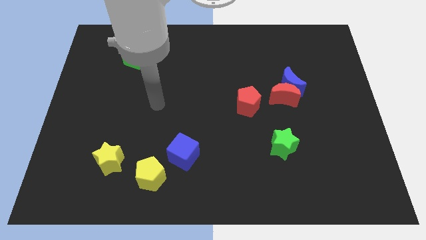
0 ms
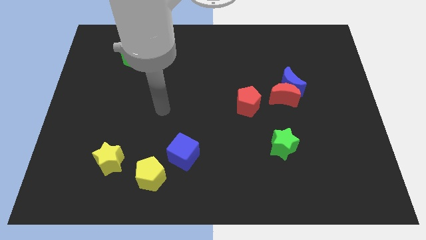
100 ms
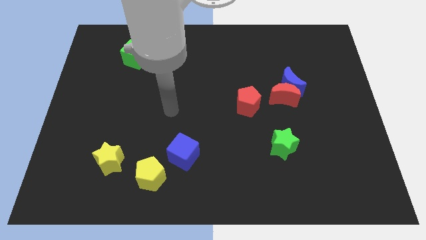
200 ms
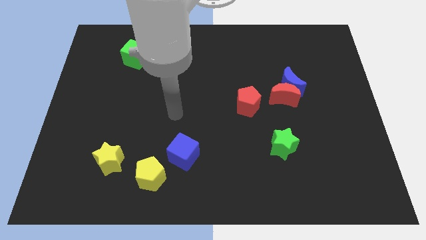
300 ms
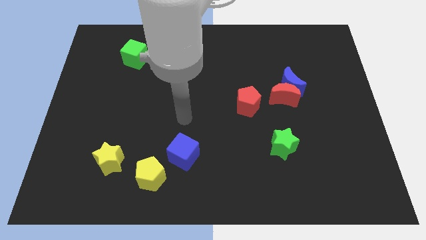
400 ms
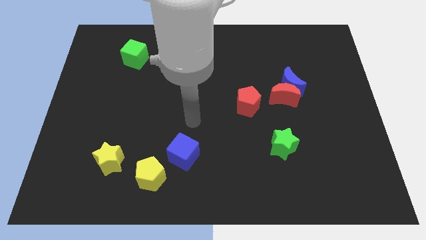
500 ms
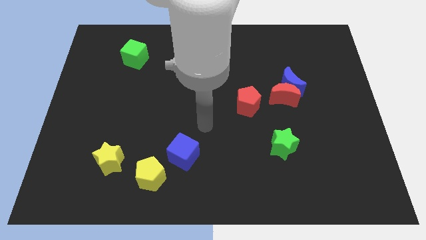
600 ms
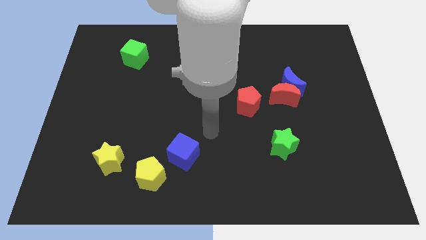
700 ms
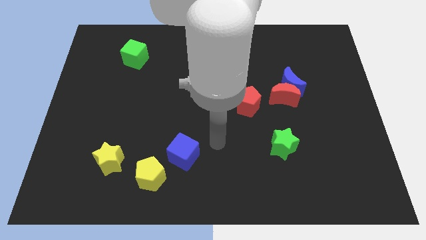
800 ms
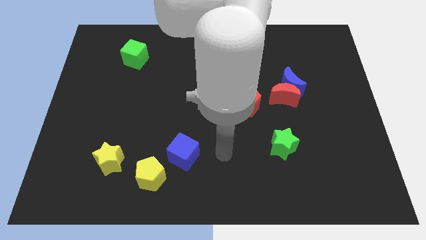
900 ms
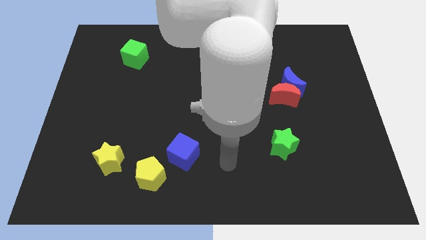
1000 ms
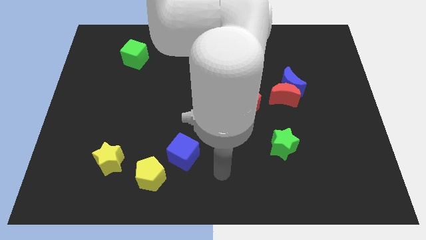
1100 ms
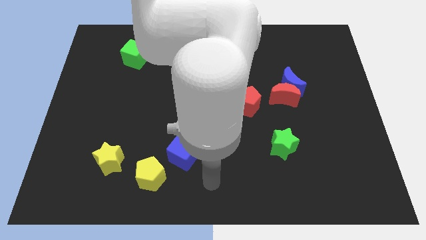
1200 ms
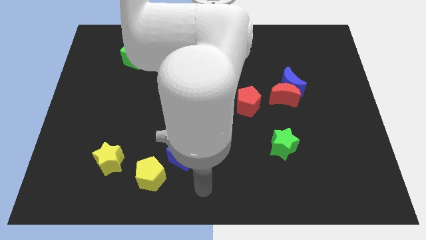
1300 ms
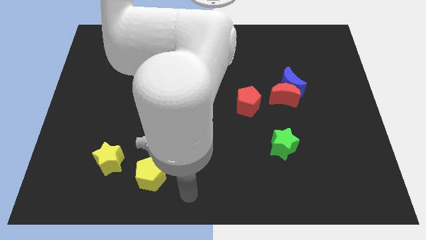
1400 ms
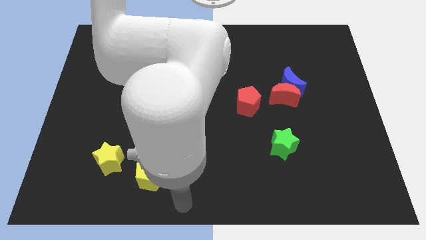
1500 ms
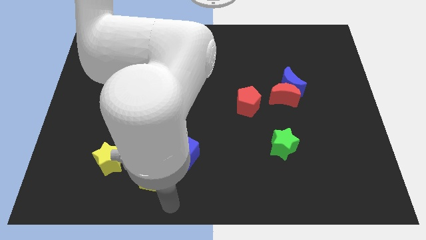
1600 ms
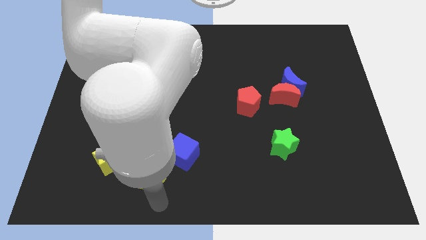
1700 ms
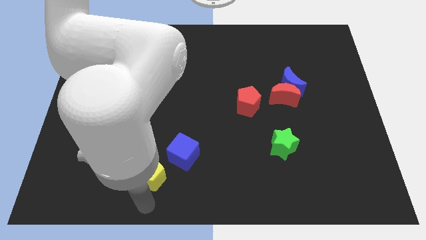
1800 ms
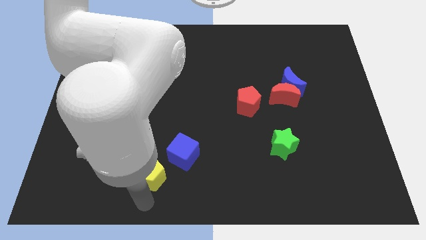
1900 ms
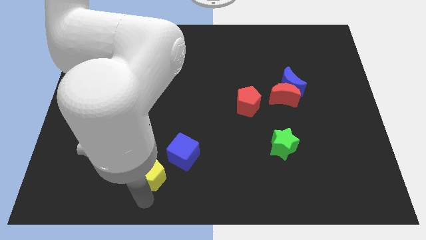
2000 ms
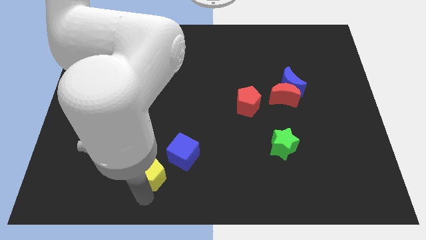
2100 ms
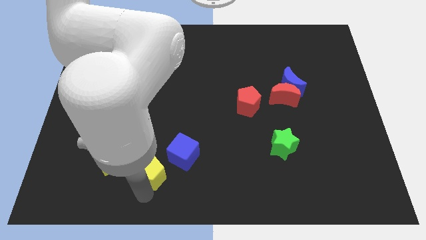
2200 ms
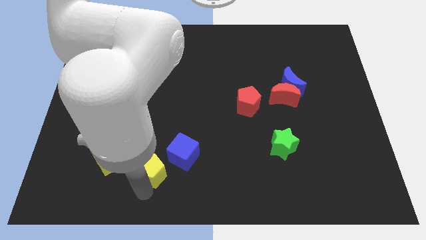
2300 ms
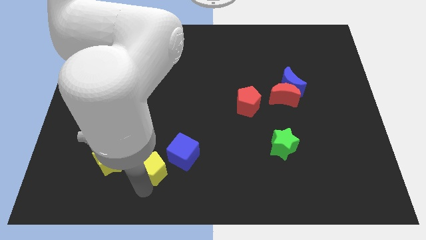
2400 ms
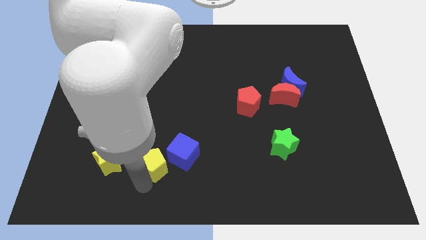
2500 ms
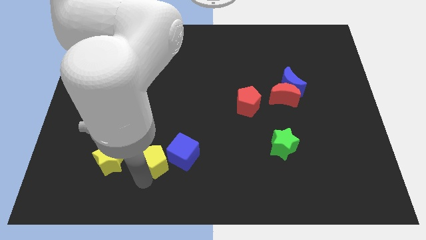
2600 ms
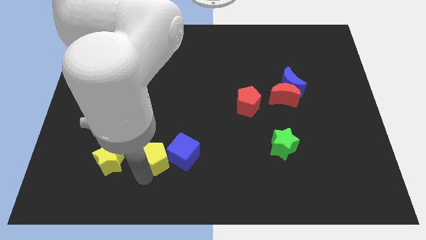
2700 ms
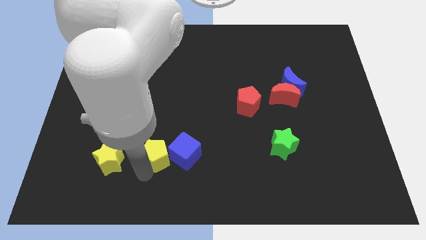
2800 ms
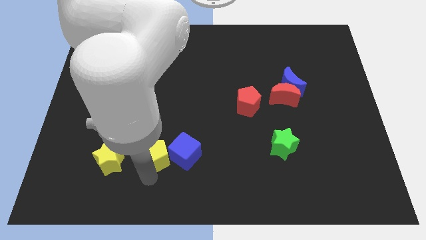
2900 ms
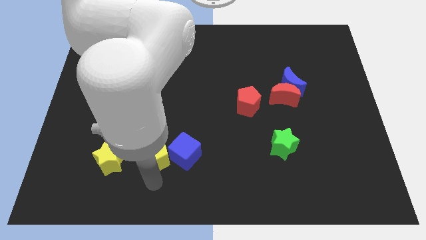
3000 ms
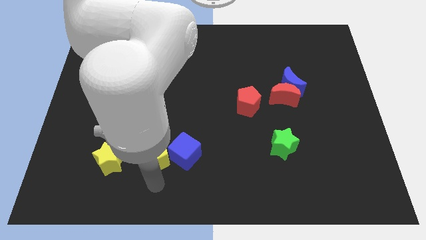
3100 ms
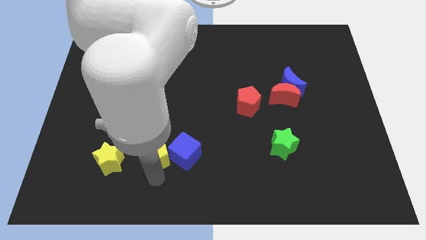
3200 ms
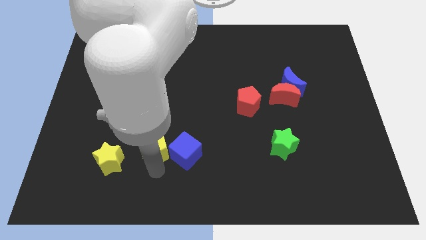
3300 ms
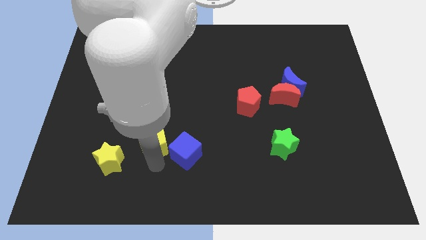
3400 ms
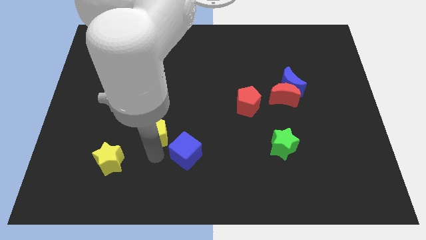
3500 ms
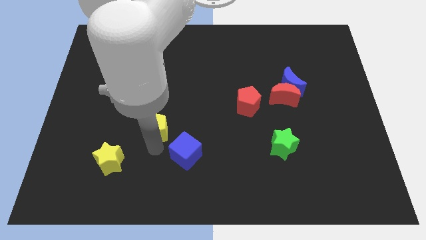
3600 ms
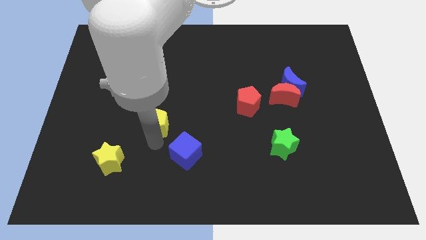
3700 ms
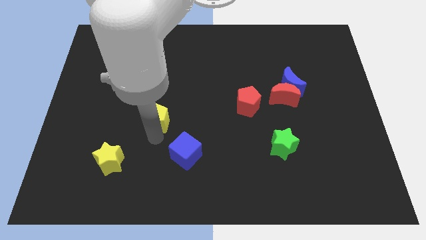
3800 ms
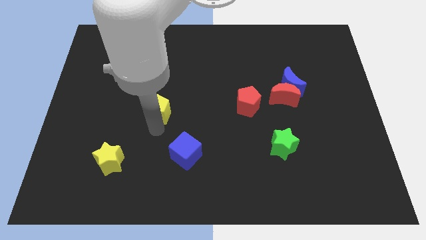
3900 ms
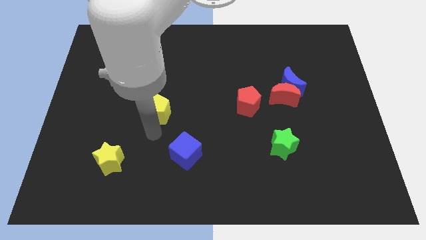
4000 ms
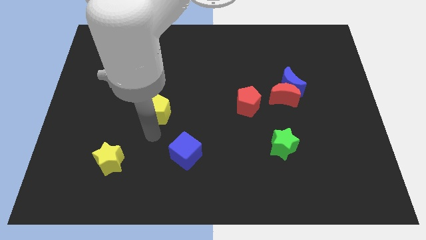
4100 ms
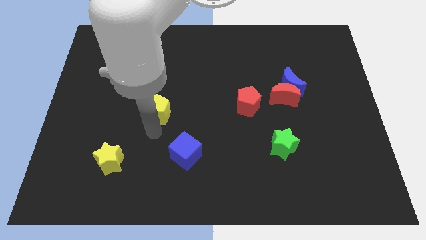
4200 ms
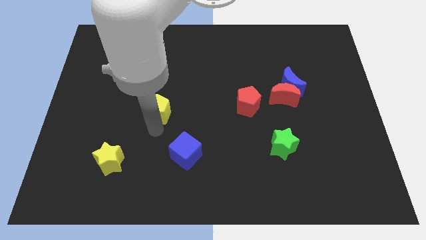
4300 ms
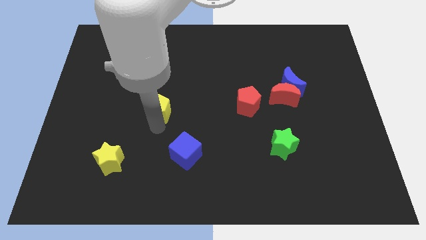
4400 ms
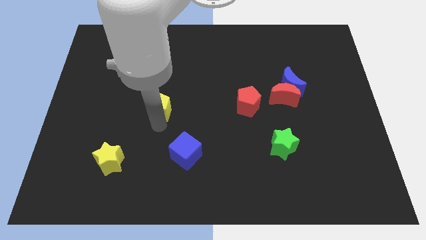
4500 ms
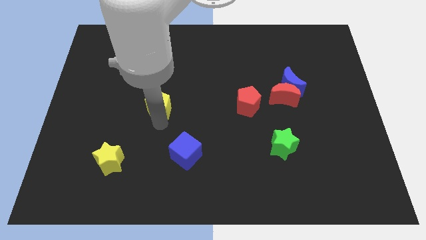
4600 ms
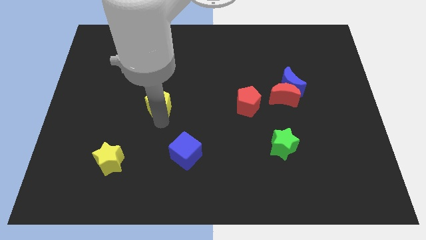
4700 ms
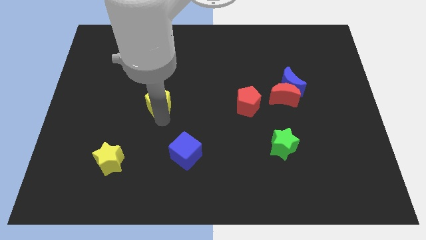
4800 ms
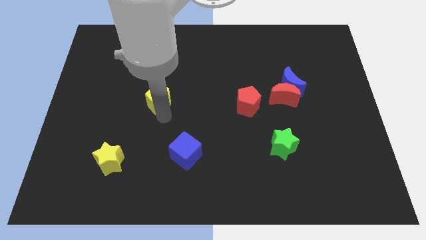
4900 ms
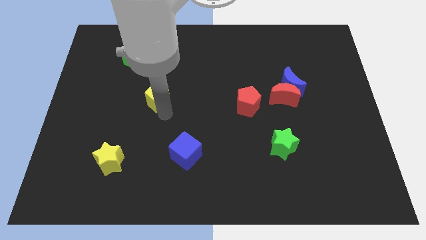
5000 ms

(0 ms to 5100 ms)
push the yellow pentagon up

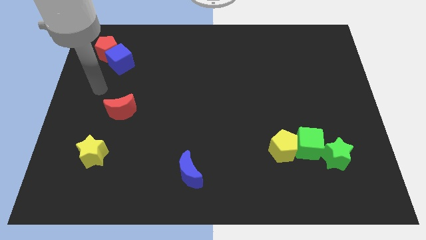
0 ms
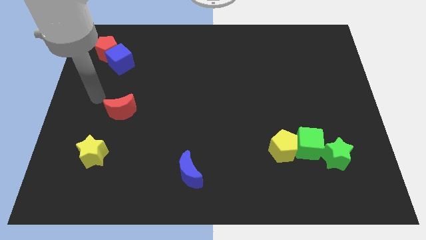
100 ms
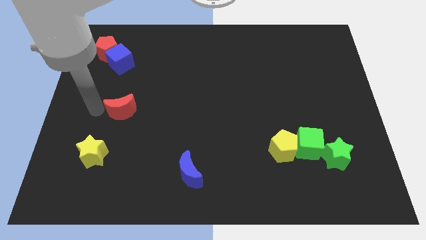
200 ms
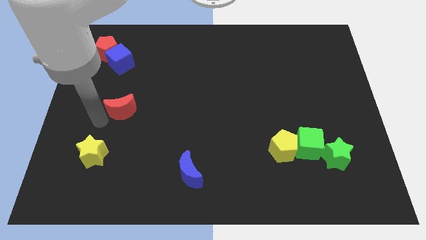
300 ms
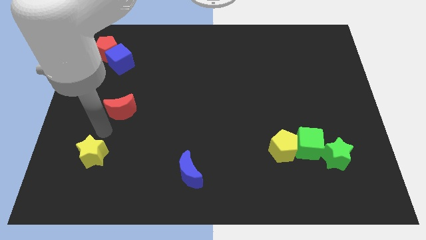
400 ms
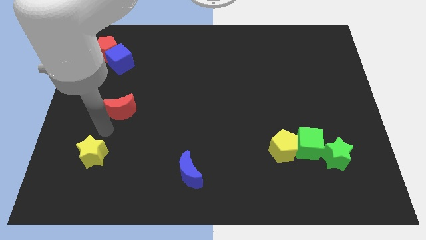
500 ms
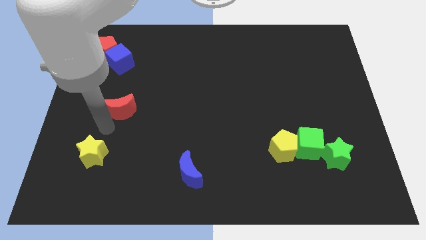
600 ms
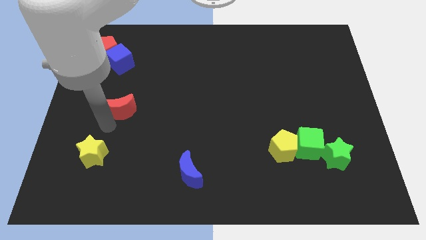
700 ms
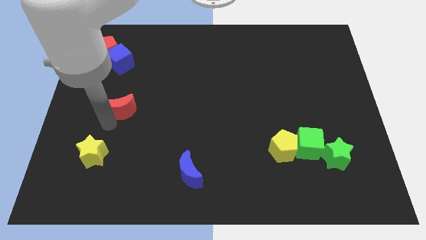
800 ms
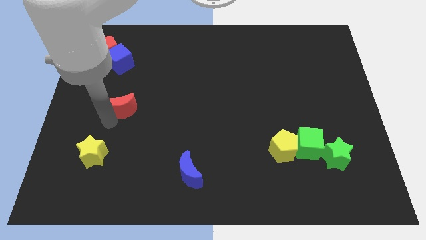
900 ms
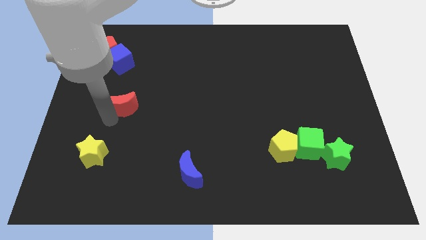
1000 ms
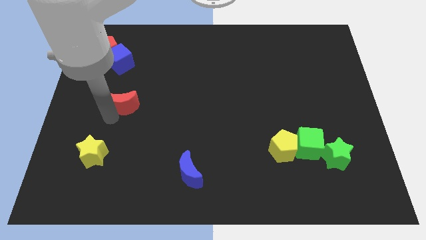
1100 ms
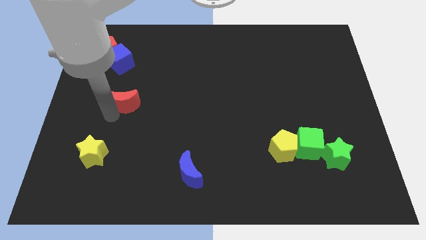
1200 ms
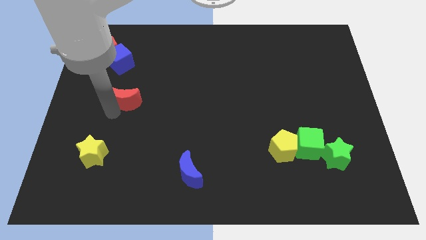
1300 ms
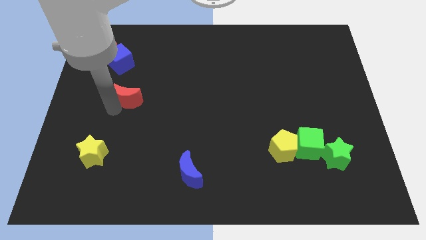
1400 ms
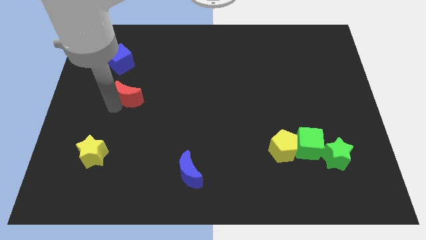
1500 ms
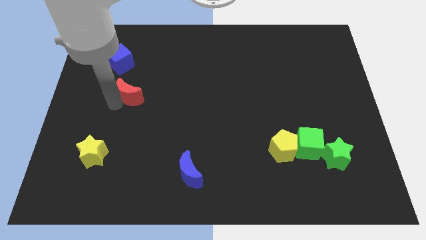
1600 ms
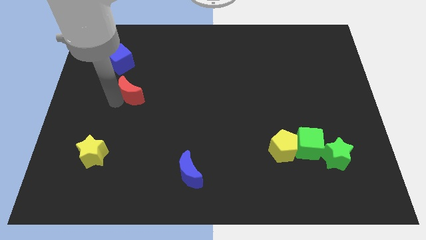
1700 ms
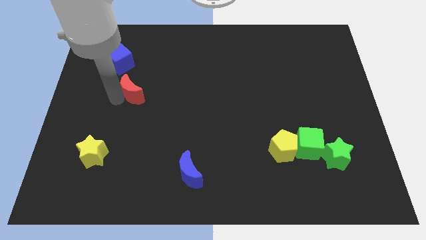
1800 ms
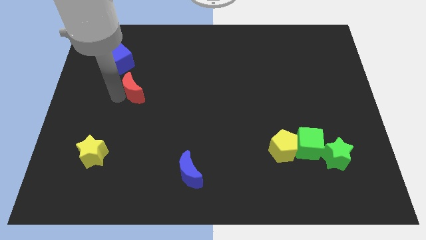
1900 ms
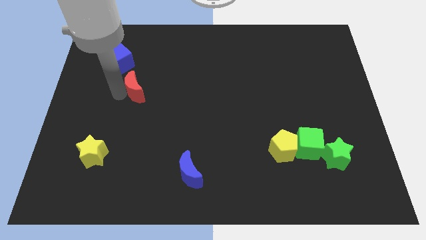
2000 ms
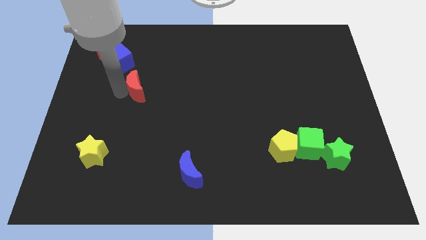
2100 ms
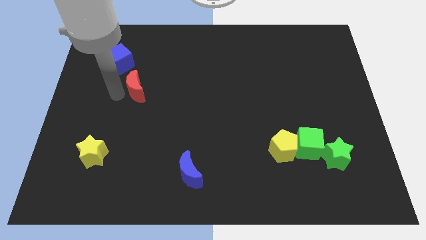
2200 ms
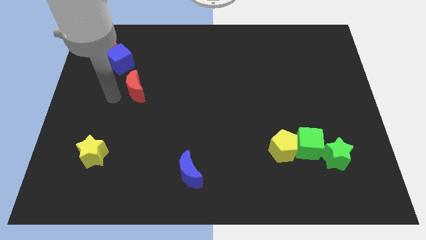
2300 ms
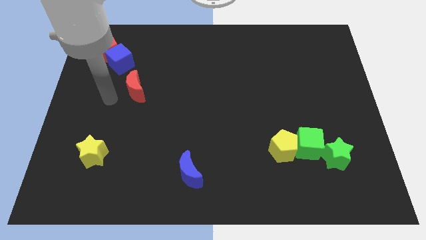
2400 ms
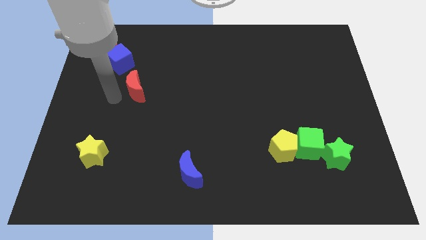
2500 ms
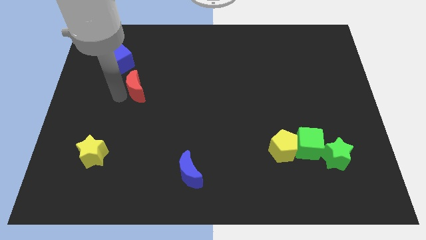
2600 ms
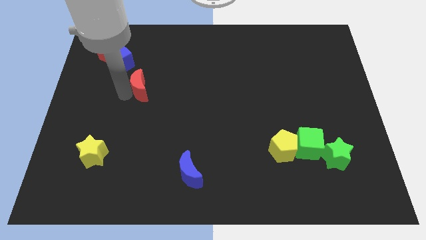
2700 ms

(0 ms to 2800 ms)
slightly push the red moon diagonally up and right
